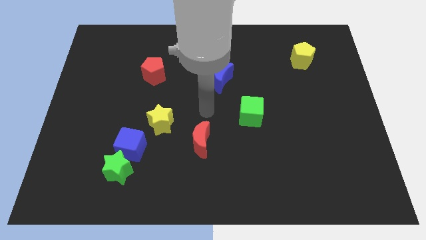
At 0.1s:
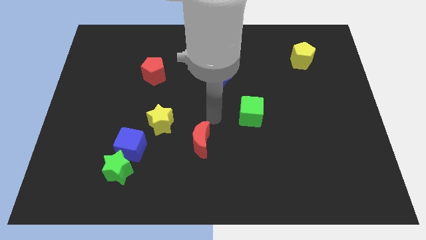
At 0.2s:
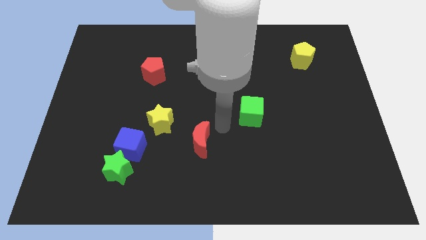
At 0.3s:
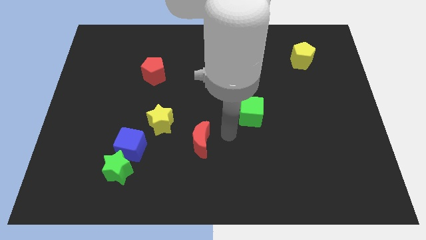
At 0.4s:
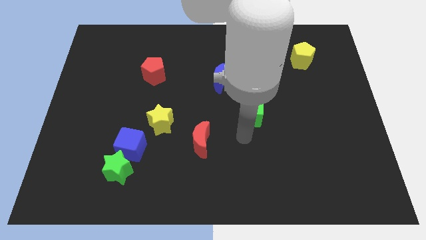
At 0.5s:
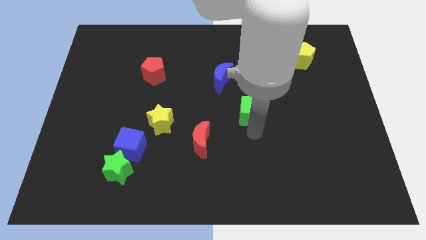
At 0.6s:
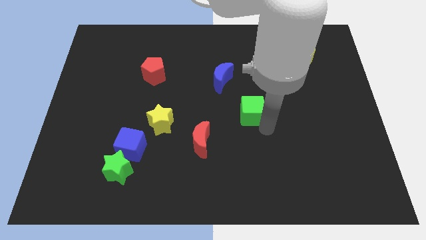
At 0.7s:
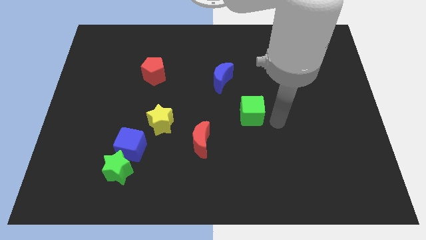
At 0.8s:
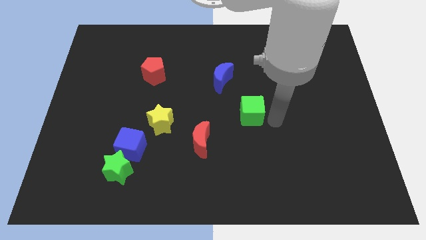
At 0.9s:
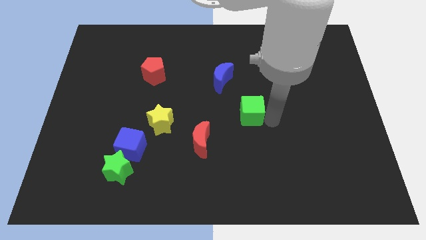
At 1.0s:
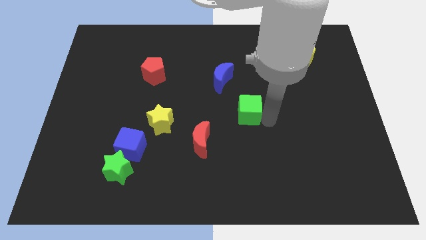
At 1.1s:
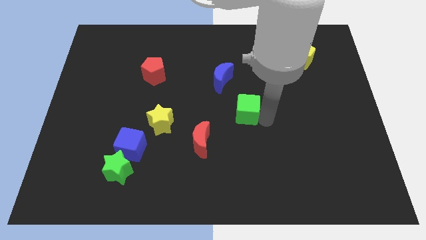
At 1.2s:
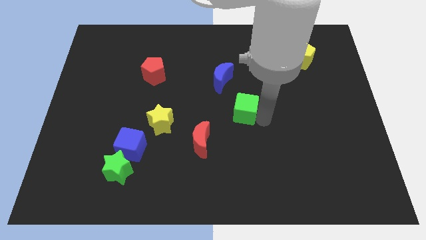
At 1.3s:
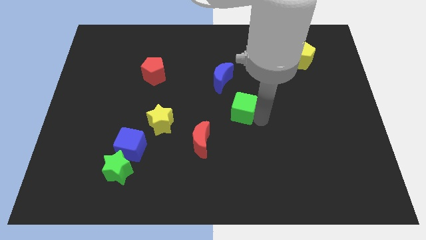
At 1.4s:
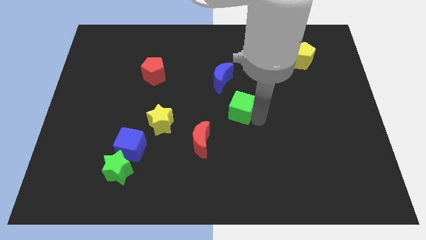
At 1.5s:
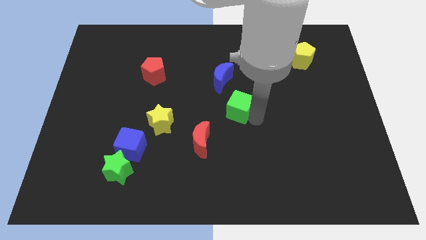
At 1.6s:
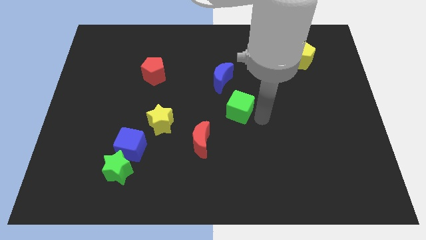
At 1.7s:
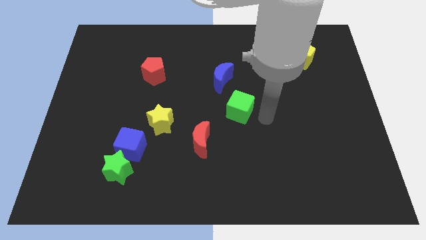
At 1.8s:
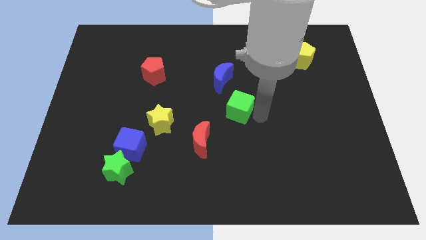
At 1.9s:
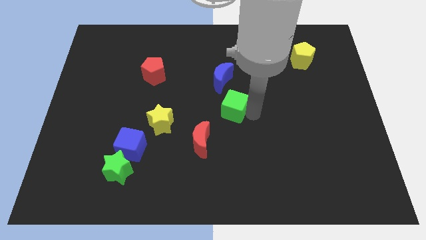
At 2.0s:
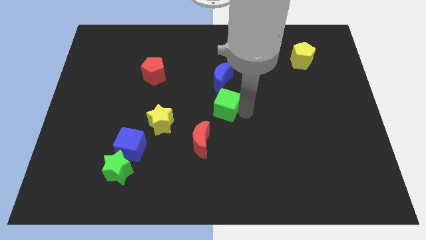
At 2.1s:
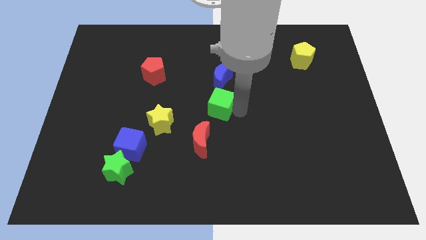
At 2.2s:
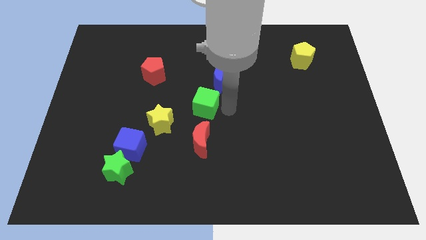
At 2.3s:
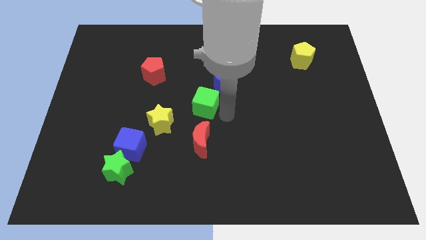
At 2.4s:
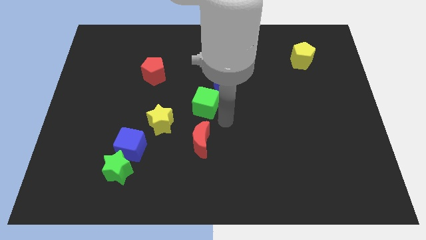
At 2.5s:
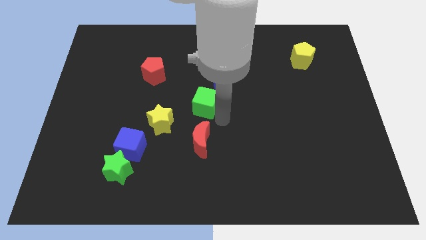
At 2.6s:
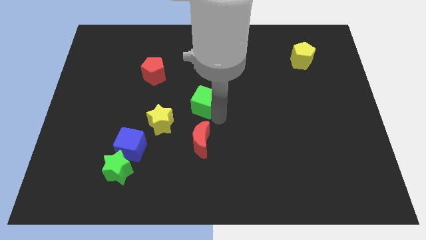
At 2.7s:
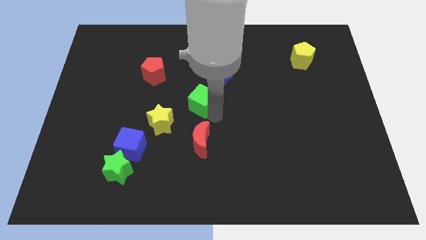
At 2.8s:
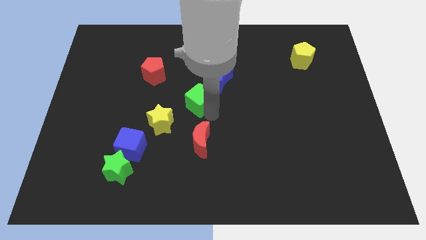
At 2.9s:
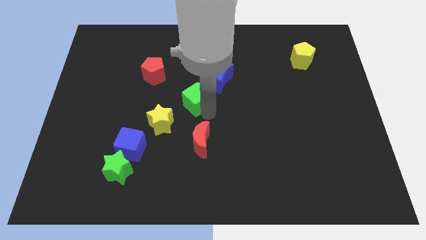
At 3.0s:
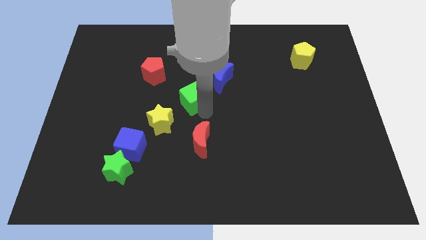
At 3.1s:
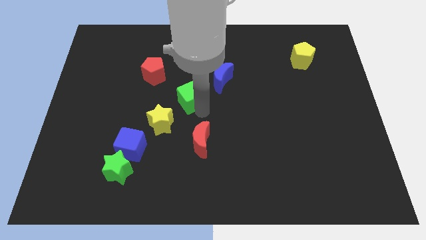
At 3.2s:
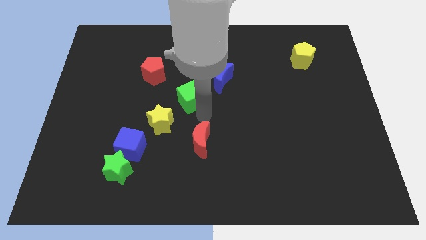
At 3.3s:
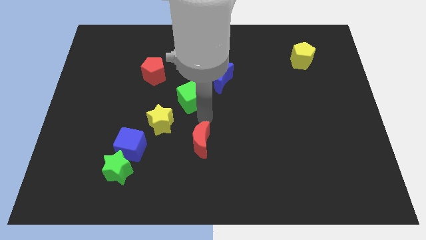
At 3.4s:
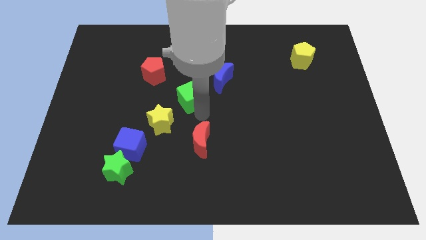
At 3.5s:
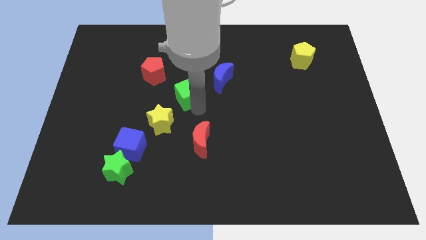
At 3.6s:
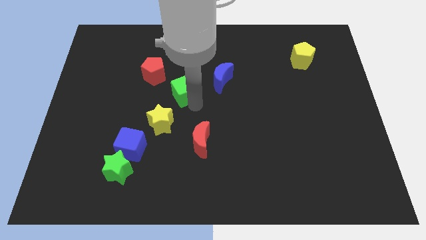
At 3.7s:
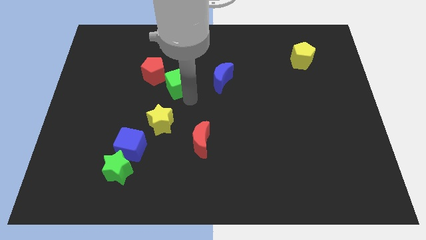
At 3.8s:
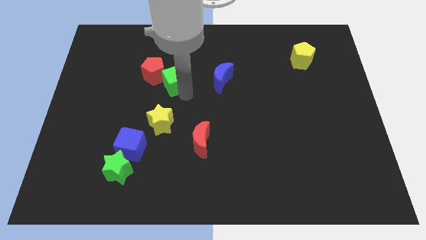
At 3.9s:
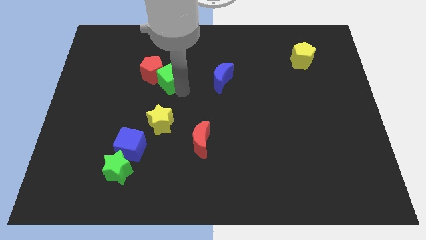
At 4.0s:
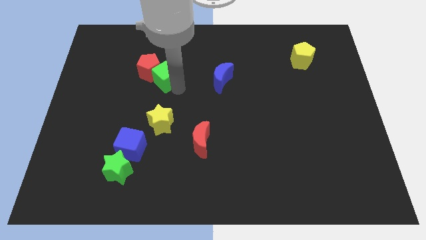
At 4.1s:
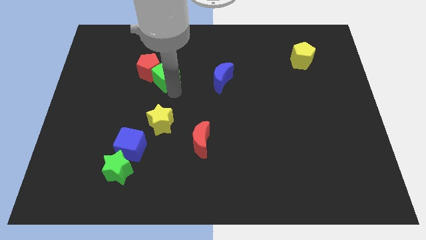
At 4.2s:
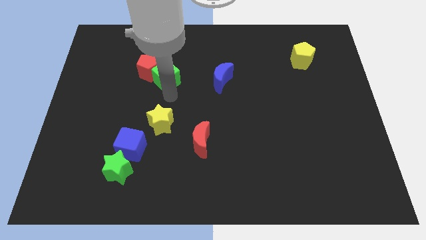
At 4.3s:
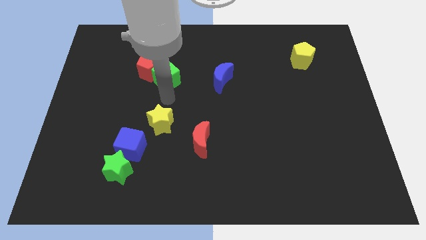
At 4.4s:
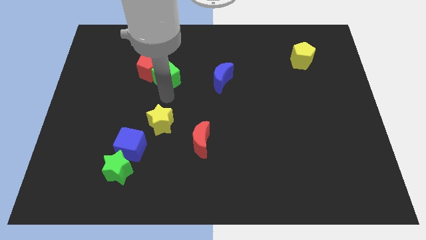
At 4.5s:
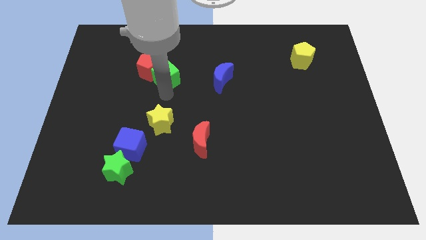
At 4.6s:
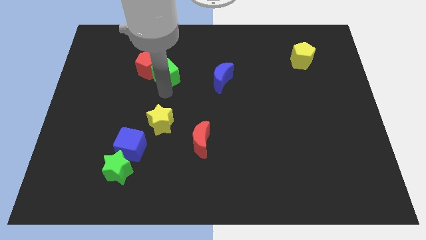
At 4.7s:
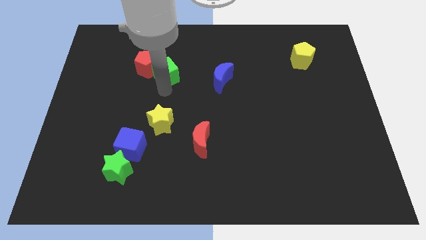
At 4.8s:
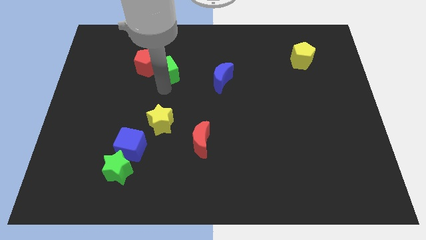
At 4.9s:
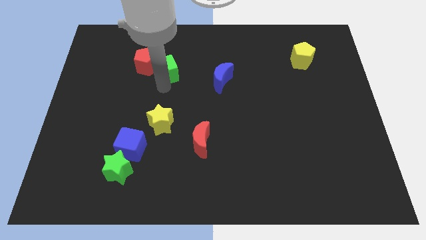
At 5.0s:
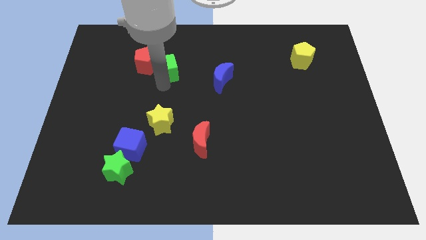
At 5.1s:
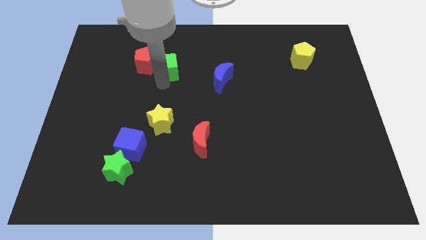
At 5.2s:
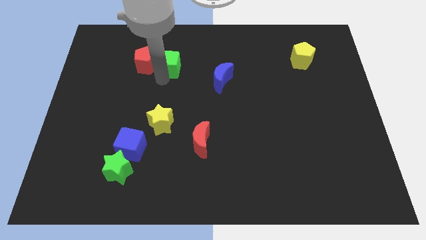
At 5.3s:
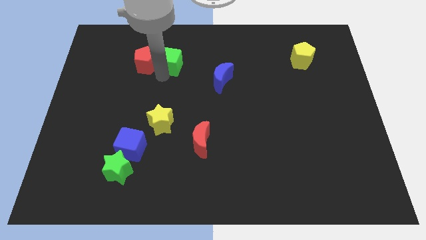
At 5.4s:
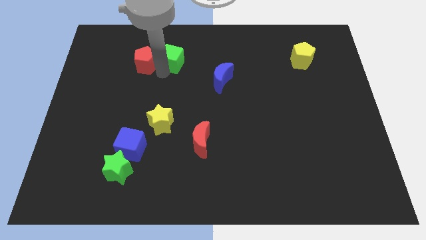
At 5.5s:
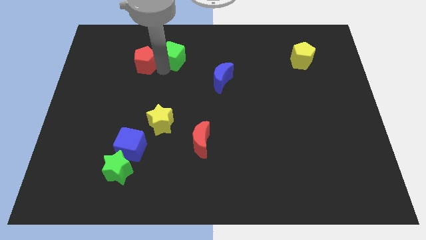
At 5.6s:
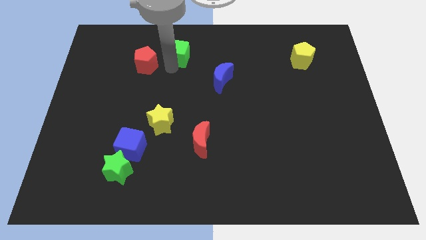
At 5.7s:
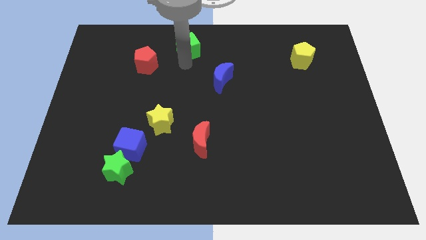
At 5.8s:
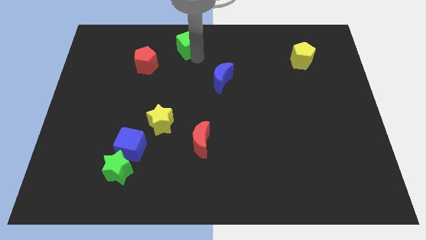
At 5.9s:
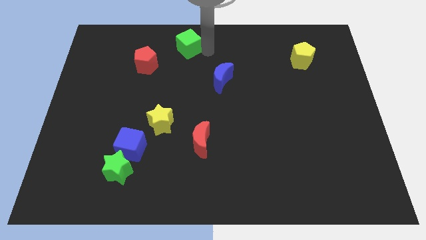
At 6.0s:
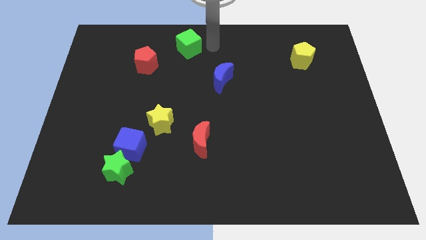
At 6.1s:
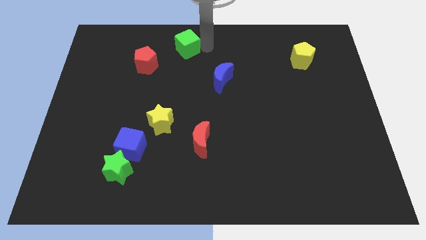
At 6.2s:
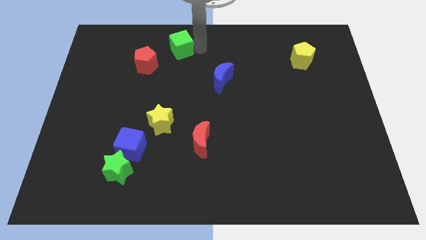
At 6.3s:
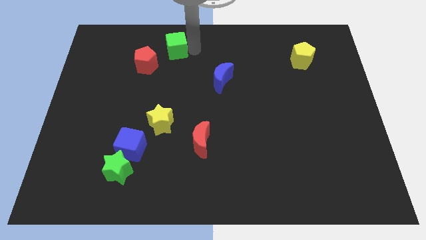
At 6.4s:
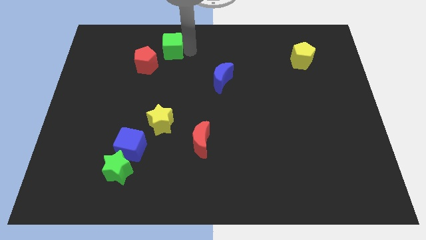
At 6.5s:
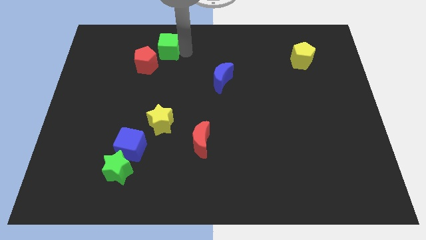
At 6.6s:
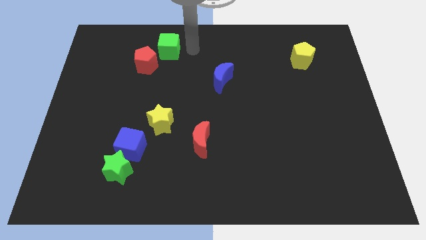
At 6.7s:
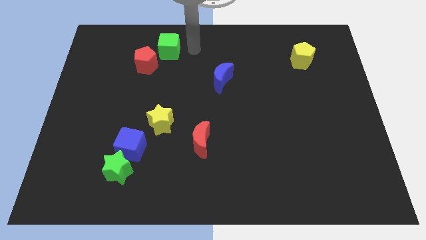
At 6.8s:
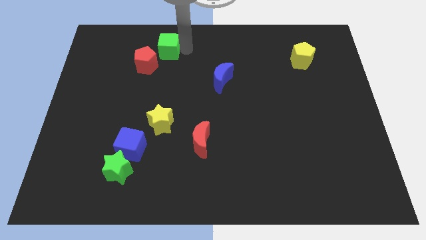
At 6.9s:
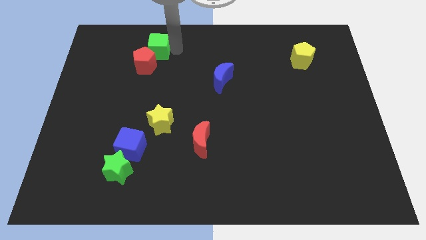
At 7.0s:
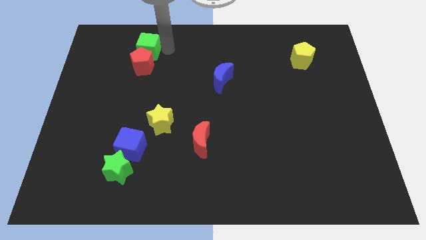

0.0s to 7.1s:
push the green cube to the top left of the red pentagon

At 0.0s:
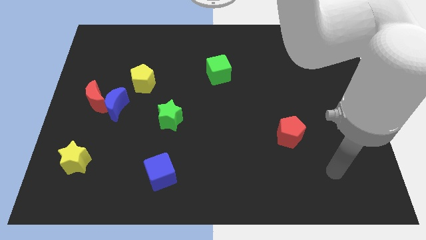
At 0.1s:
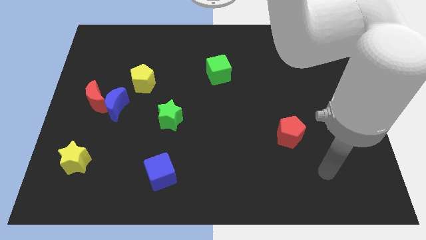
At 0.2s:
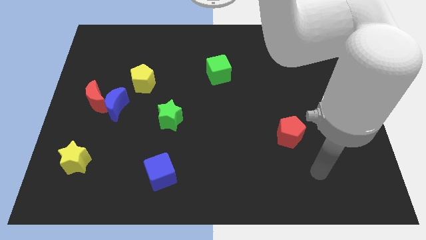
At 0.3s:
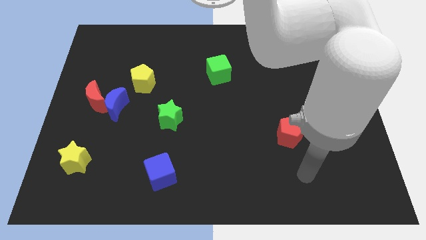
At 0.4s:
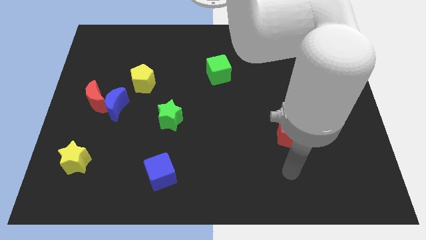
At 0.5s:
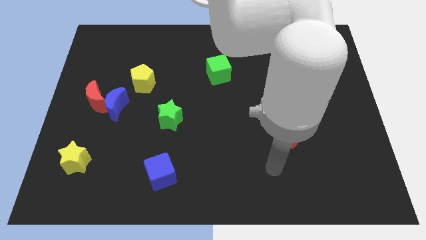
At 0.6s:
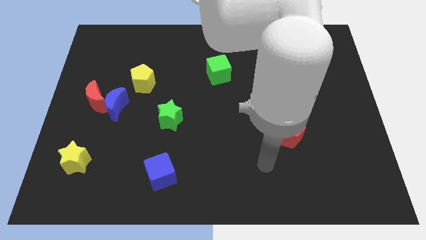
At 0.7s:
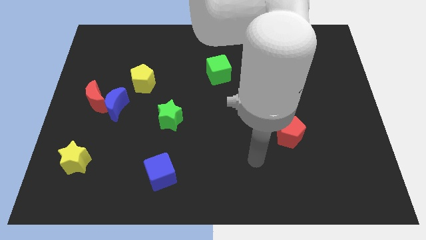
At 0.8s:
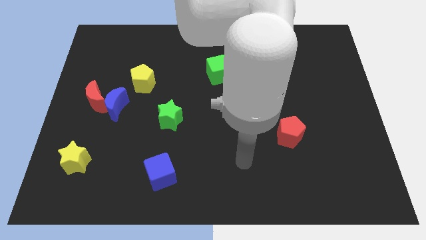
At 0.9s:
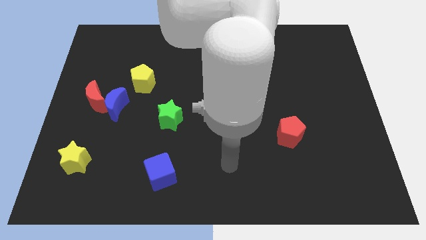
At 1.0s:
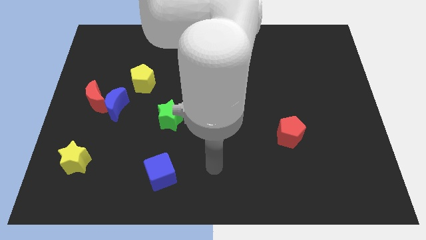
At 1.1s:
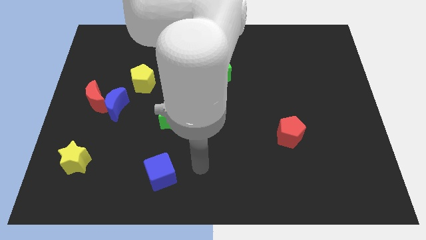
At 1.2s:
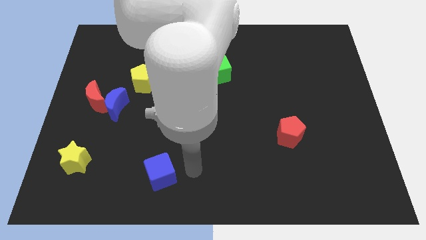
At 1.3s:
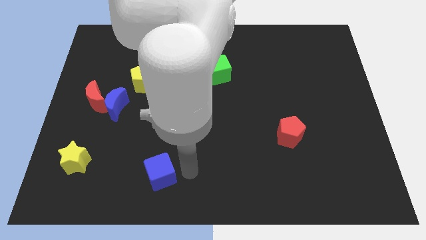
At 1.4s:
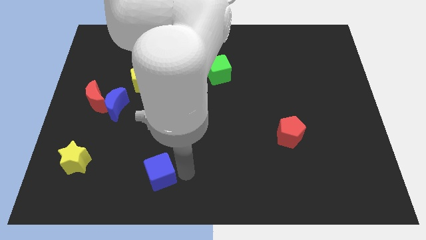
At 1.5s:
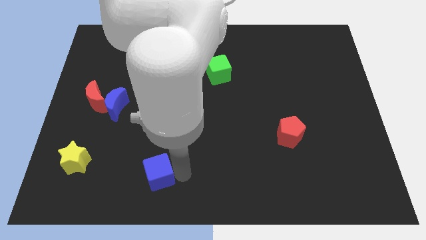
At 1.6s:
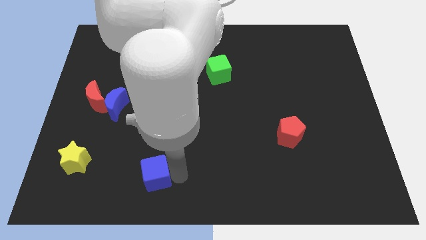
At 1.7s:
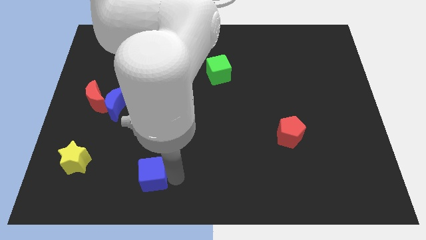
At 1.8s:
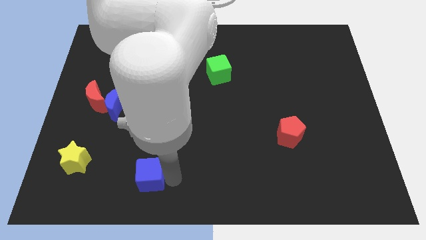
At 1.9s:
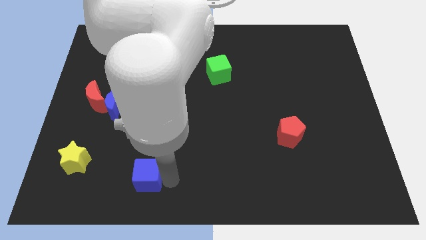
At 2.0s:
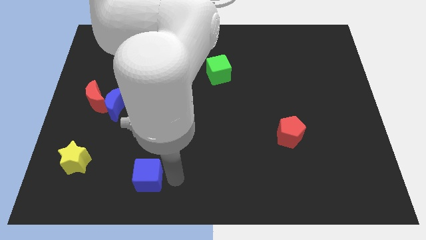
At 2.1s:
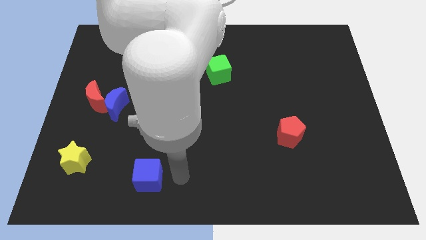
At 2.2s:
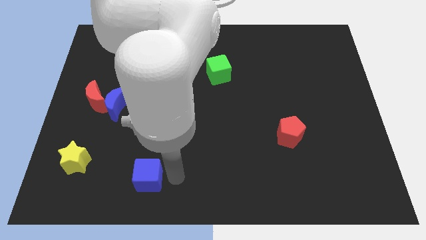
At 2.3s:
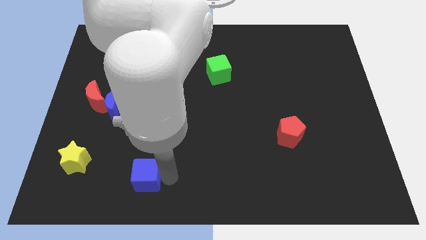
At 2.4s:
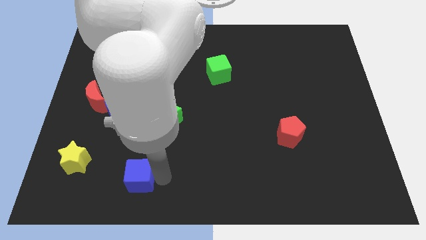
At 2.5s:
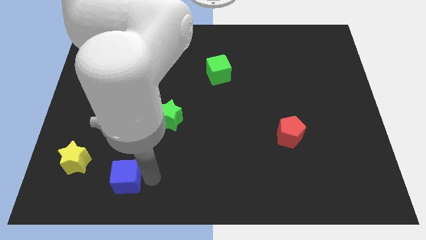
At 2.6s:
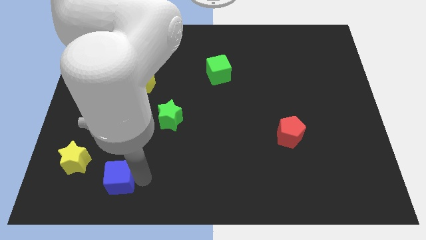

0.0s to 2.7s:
put the blue cube diagonally down and to the right of the yellow star
